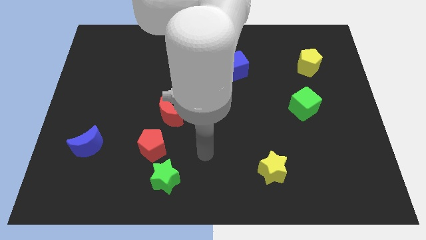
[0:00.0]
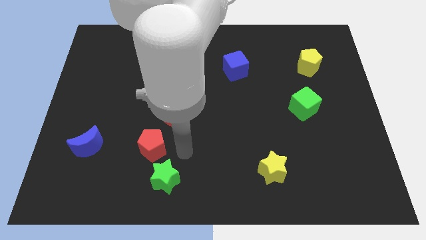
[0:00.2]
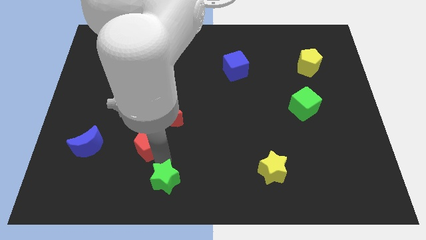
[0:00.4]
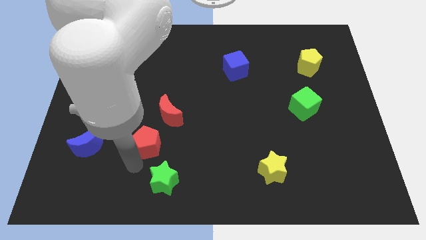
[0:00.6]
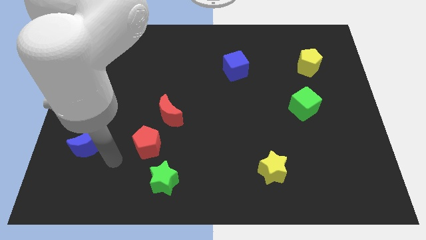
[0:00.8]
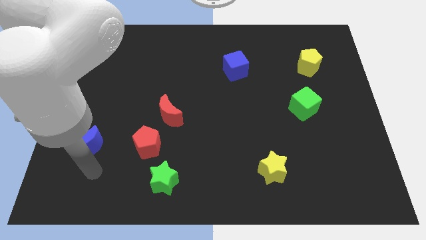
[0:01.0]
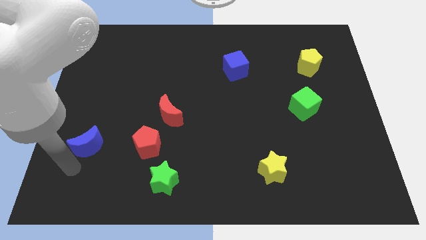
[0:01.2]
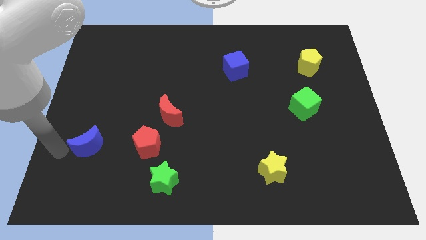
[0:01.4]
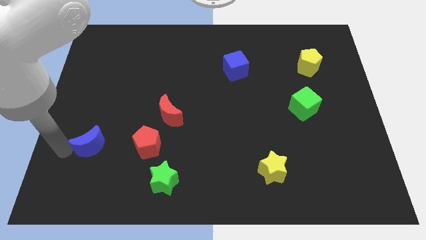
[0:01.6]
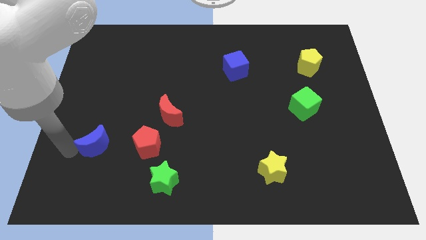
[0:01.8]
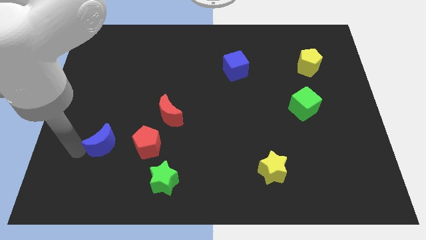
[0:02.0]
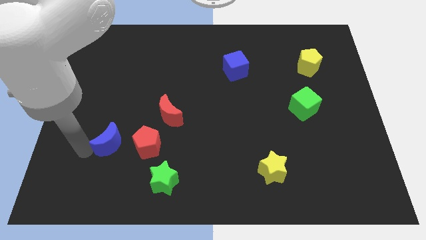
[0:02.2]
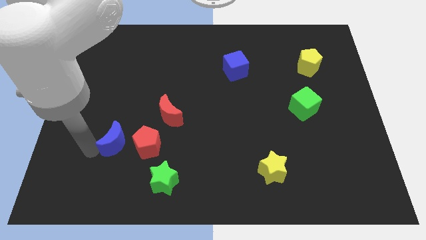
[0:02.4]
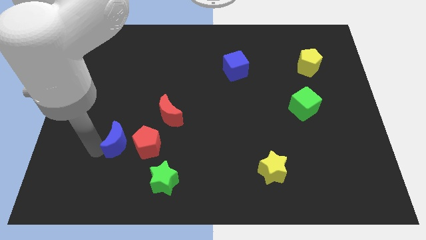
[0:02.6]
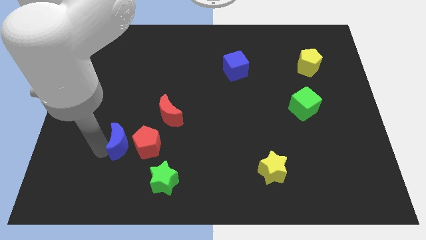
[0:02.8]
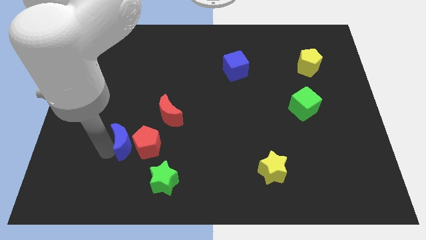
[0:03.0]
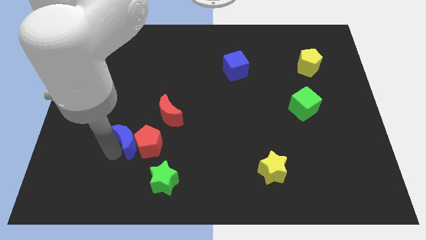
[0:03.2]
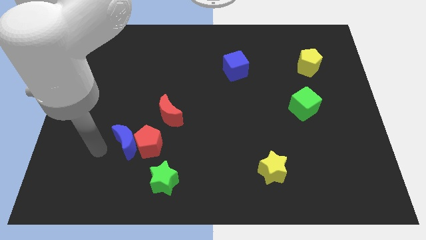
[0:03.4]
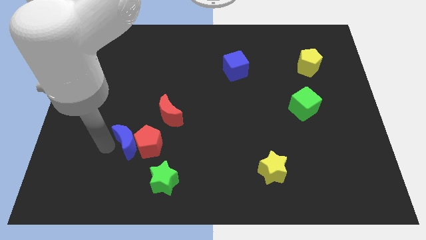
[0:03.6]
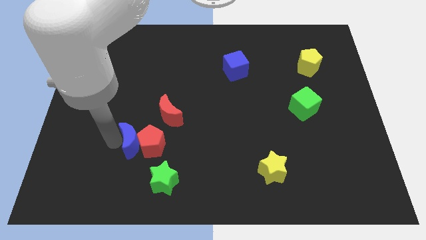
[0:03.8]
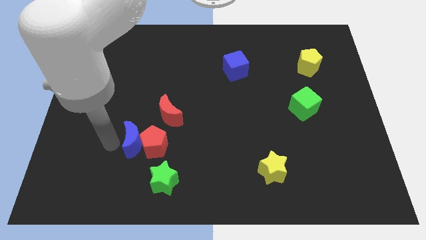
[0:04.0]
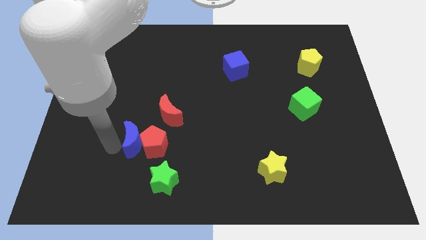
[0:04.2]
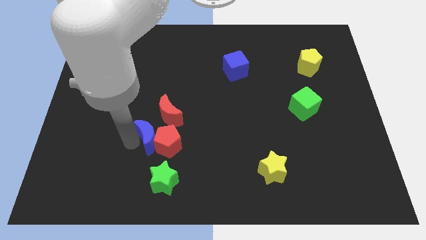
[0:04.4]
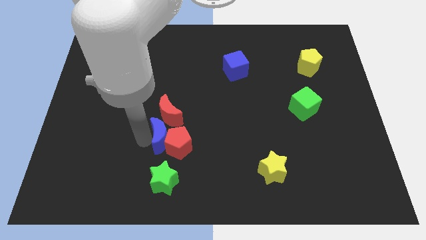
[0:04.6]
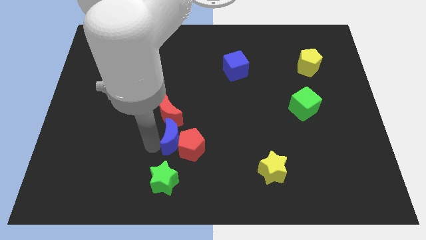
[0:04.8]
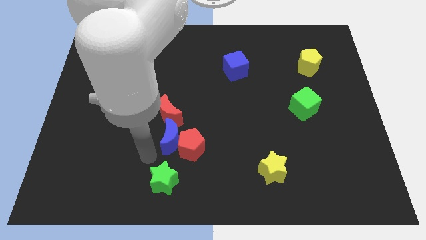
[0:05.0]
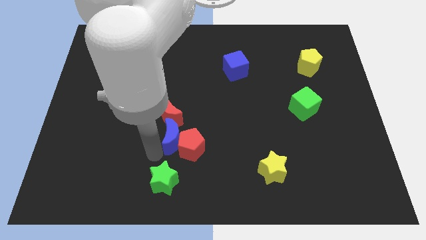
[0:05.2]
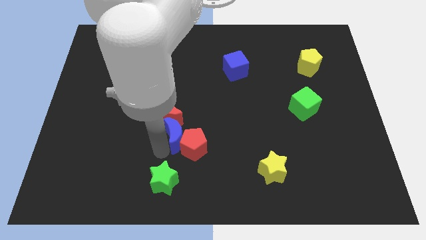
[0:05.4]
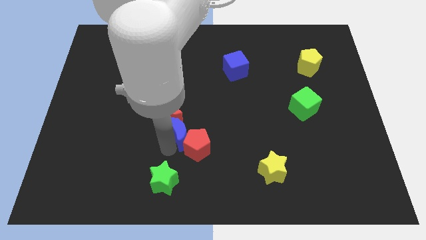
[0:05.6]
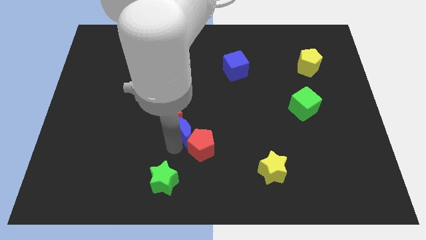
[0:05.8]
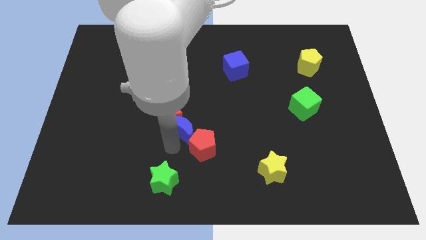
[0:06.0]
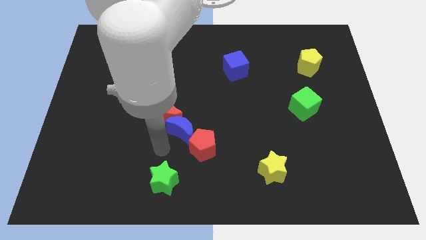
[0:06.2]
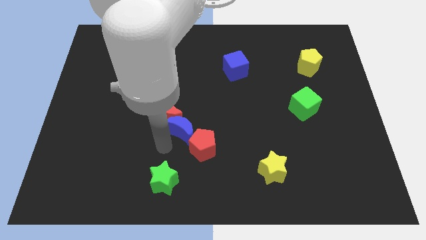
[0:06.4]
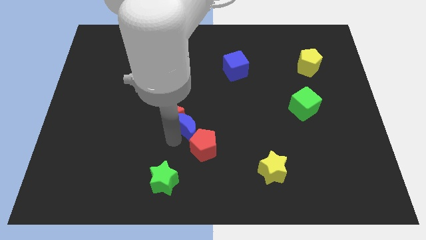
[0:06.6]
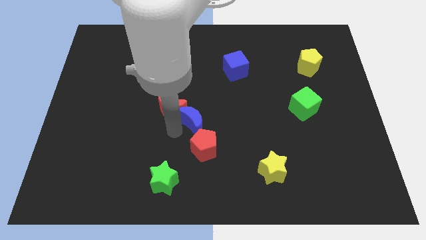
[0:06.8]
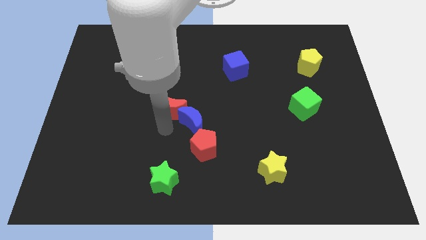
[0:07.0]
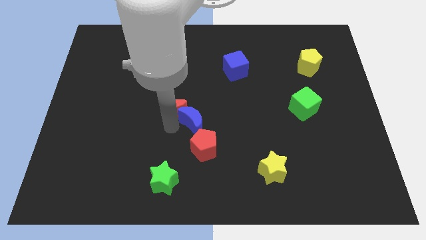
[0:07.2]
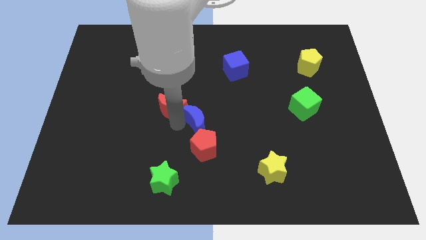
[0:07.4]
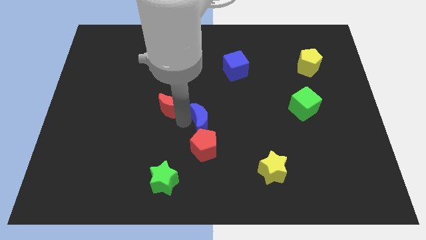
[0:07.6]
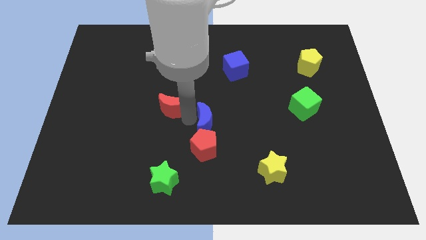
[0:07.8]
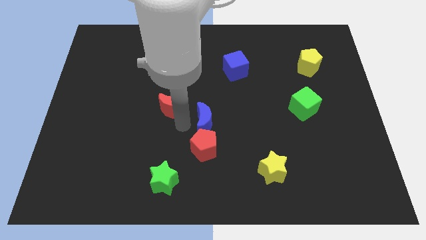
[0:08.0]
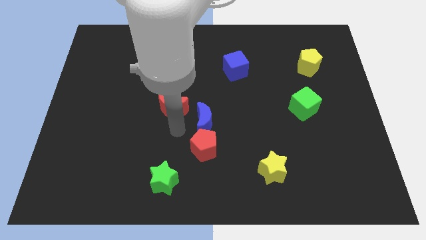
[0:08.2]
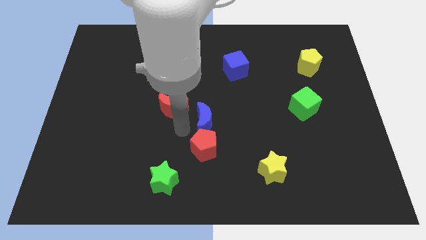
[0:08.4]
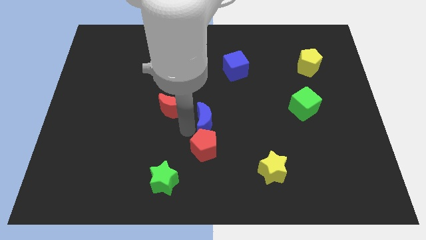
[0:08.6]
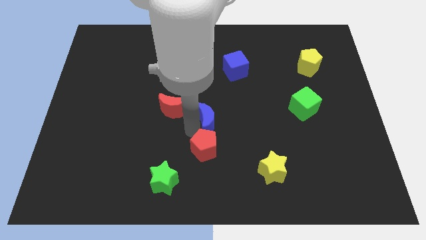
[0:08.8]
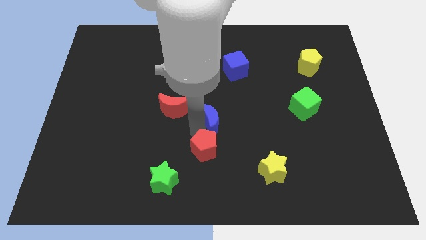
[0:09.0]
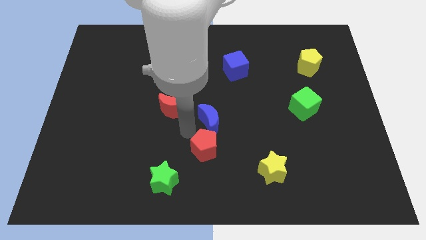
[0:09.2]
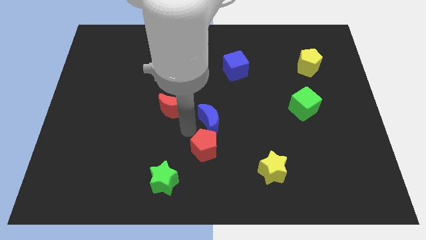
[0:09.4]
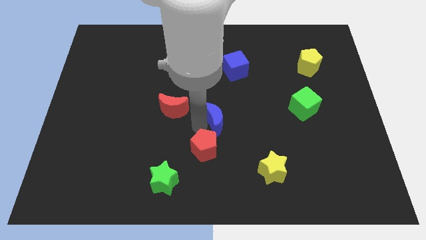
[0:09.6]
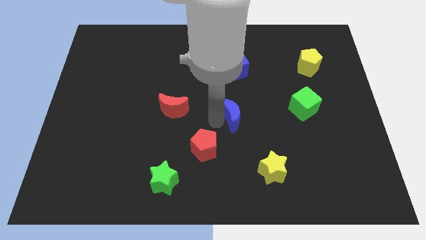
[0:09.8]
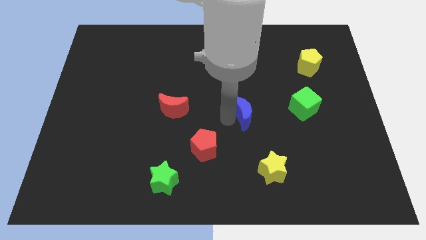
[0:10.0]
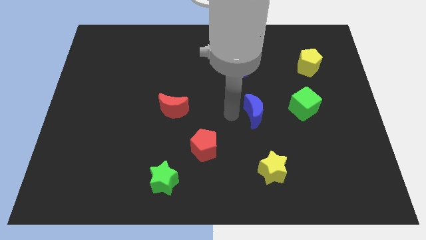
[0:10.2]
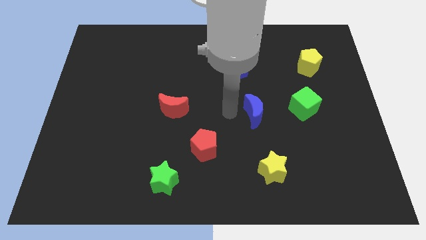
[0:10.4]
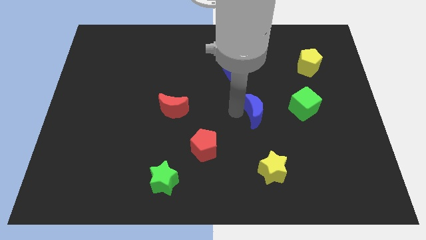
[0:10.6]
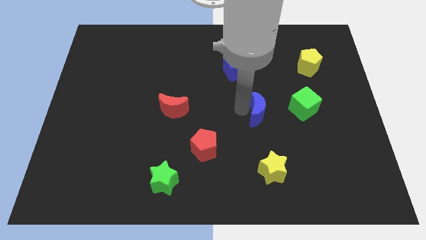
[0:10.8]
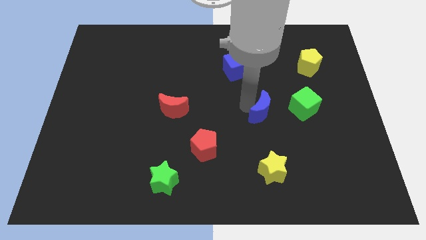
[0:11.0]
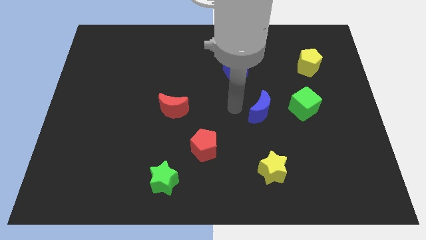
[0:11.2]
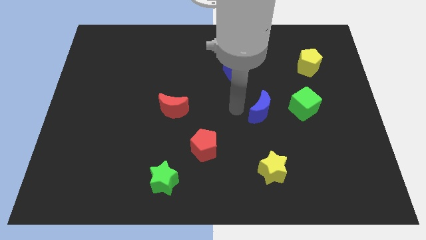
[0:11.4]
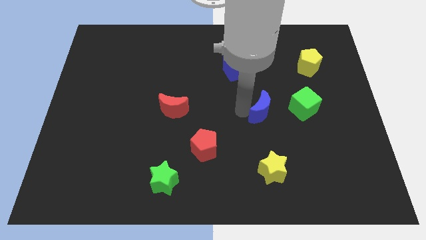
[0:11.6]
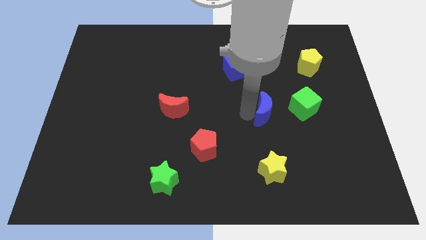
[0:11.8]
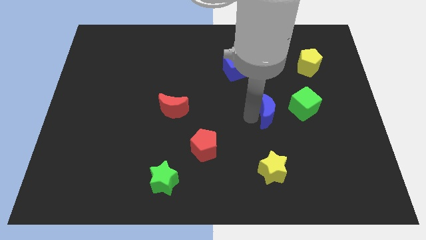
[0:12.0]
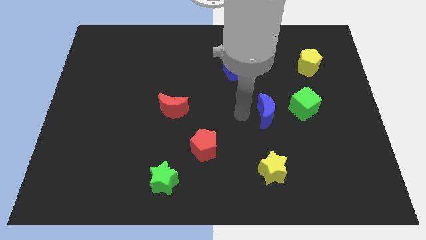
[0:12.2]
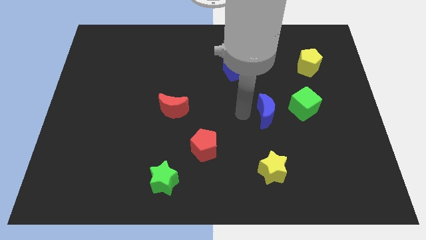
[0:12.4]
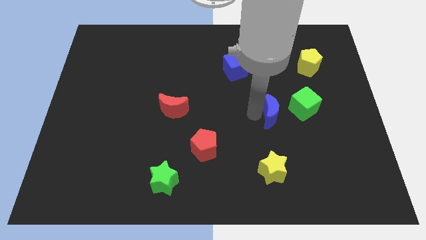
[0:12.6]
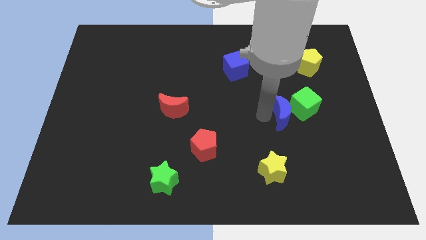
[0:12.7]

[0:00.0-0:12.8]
push the blue moon towards the green cube

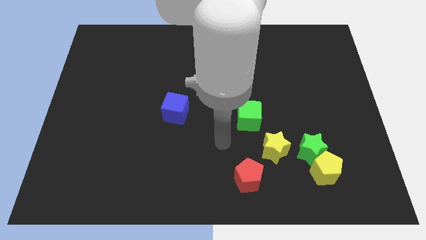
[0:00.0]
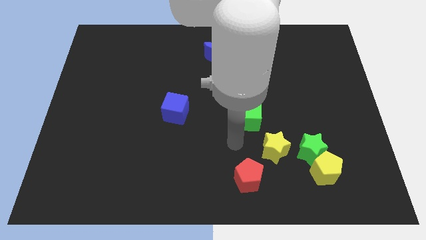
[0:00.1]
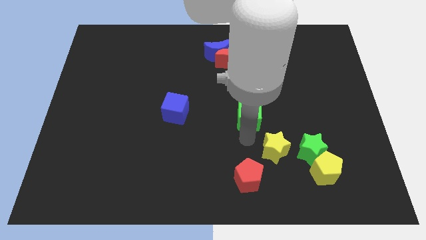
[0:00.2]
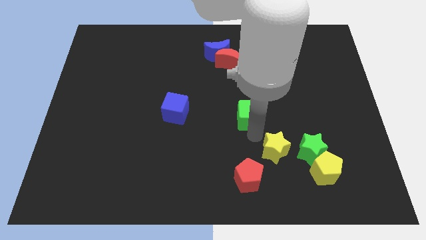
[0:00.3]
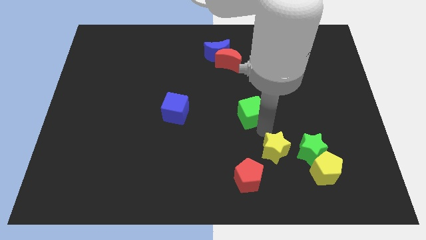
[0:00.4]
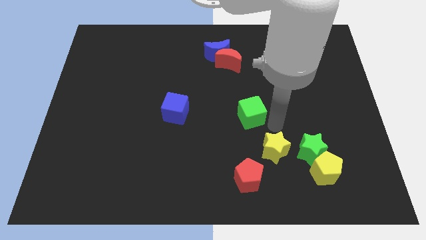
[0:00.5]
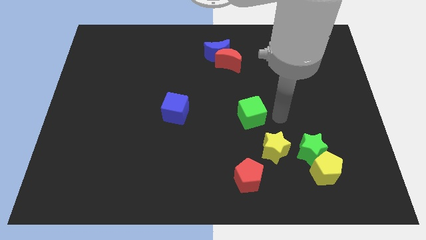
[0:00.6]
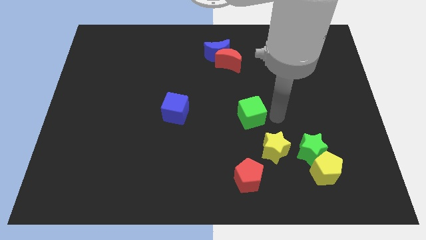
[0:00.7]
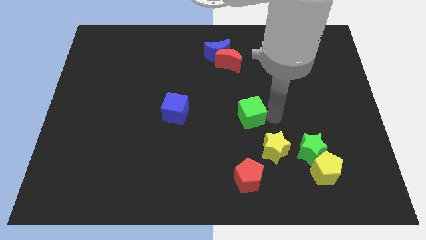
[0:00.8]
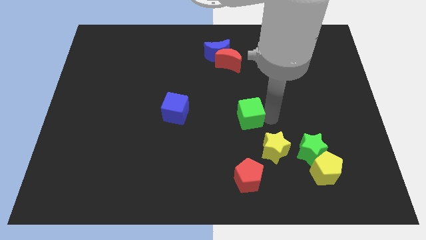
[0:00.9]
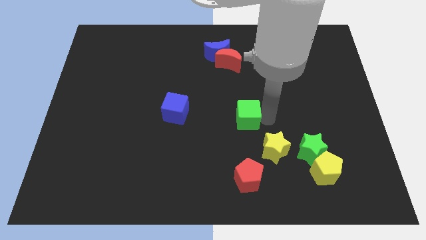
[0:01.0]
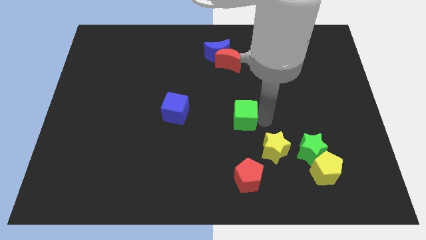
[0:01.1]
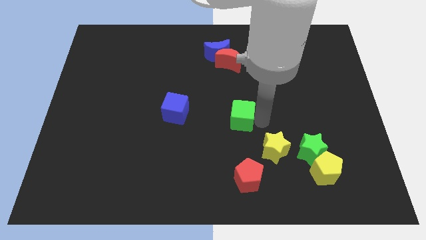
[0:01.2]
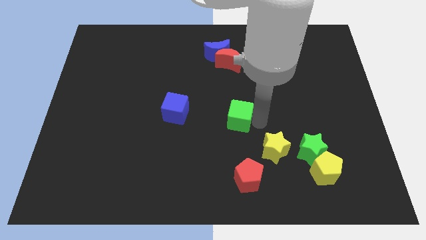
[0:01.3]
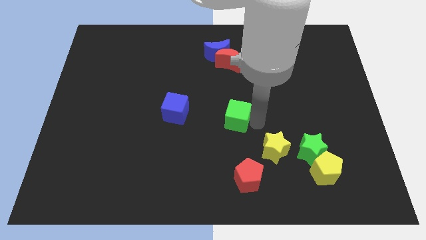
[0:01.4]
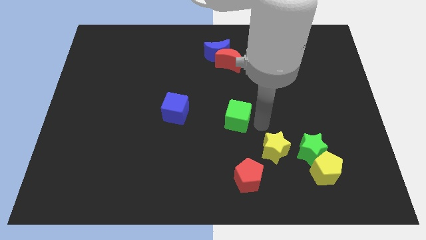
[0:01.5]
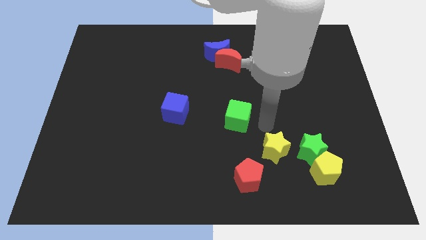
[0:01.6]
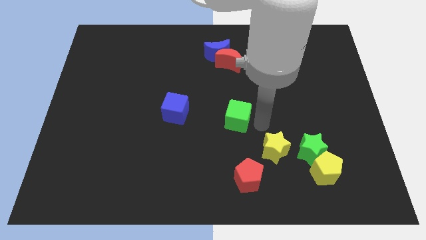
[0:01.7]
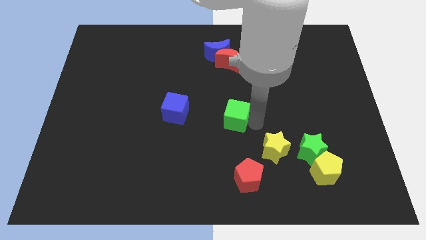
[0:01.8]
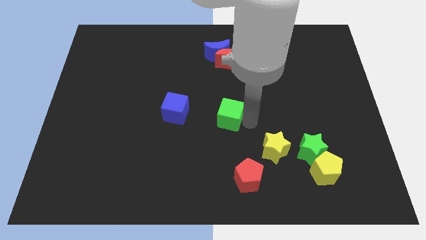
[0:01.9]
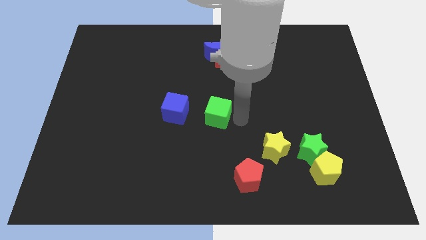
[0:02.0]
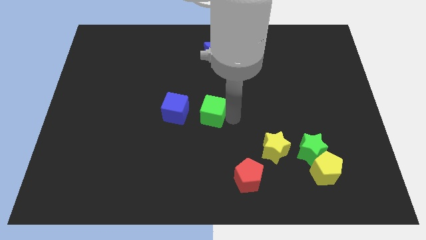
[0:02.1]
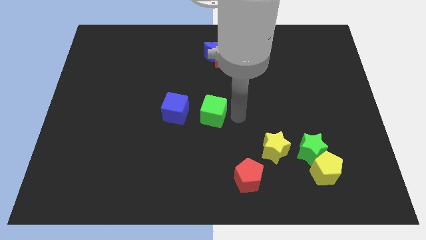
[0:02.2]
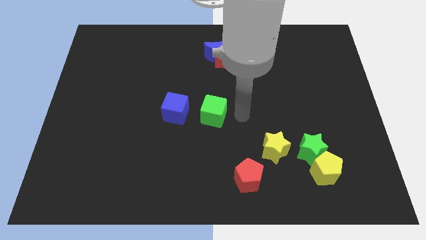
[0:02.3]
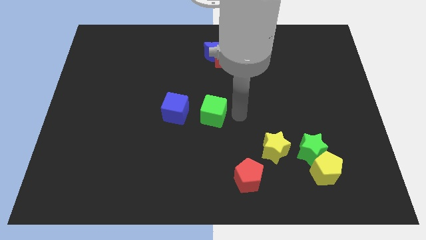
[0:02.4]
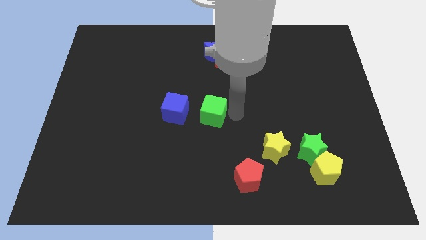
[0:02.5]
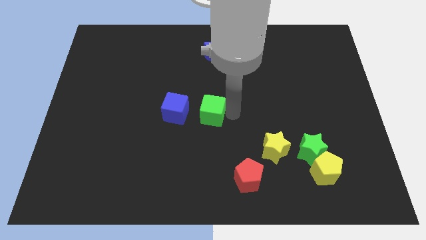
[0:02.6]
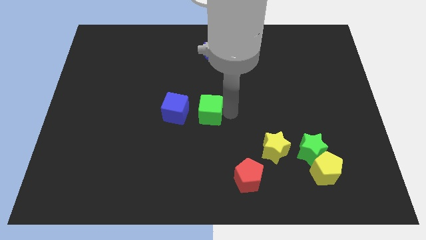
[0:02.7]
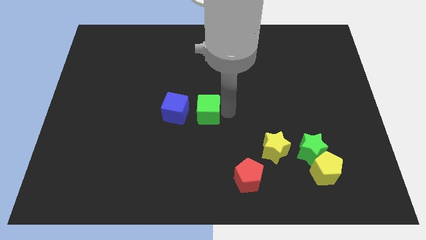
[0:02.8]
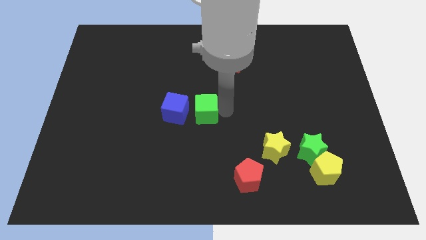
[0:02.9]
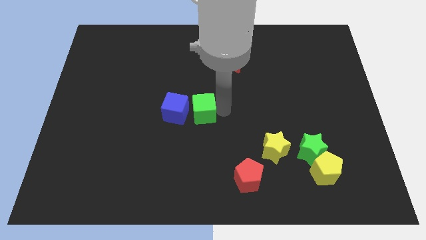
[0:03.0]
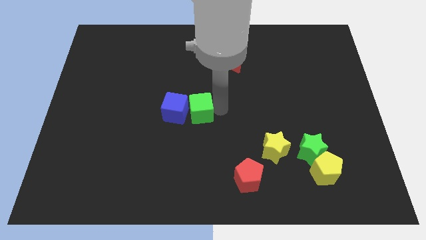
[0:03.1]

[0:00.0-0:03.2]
slide the green cube towards the blue cube
